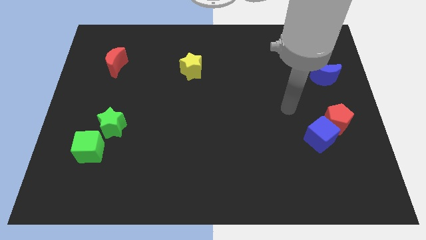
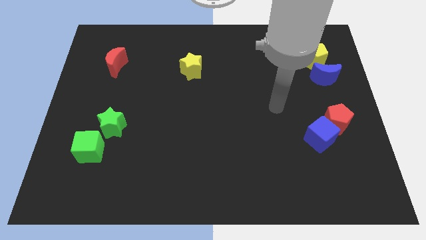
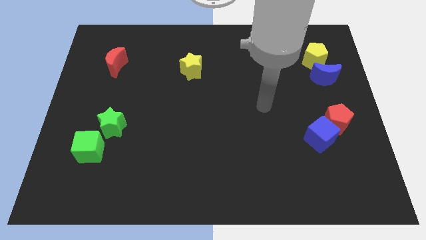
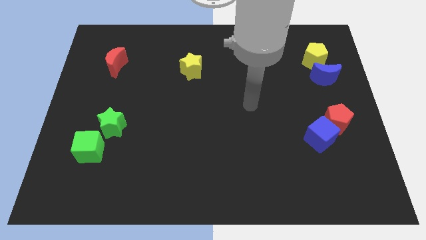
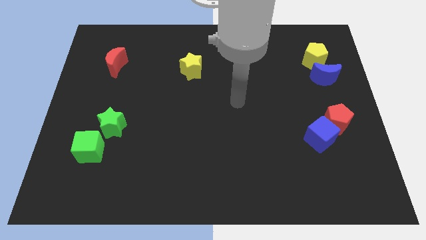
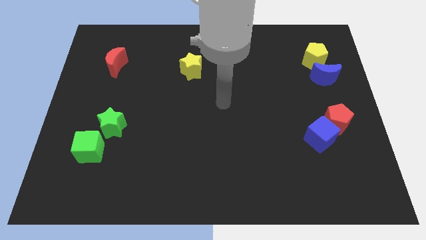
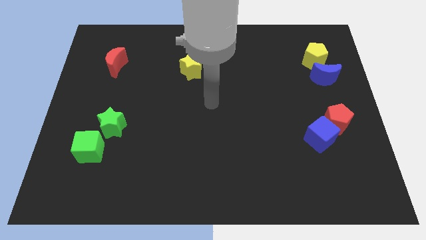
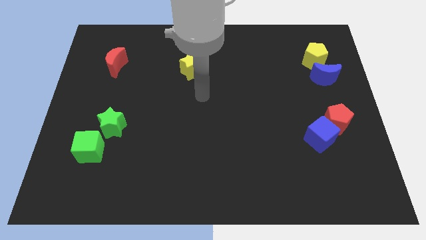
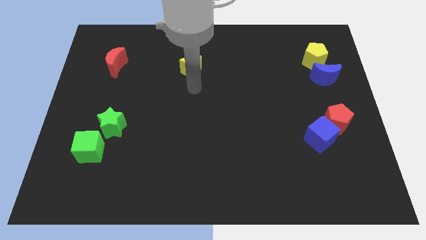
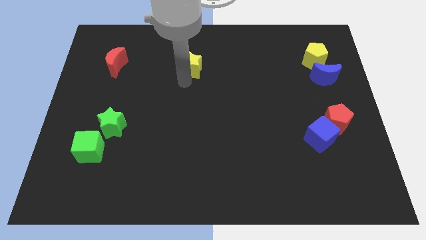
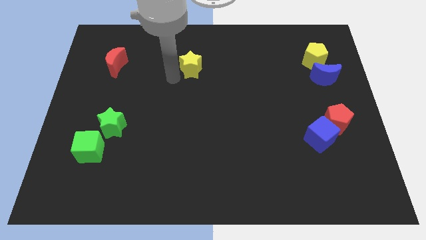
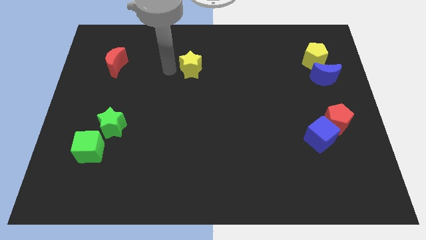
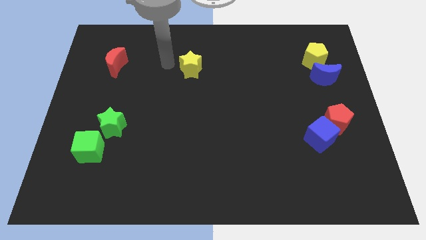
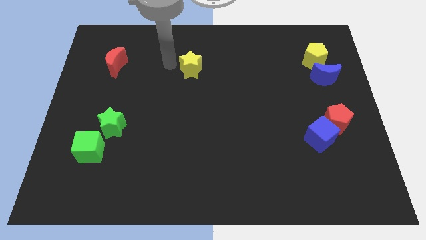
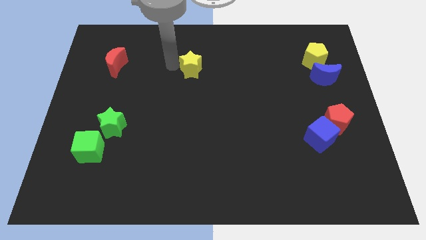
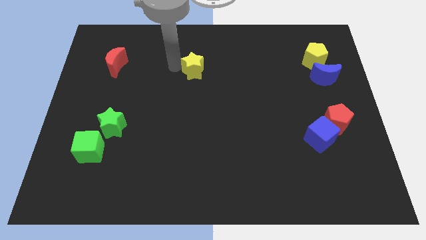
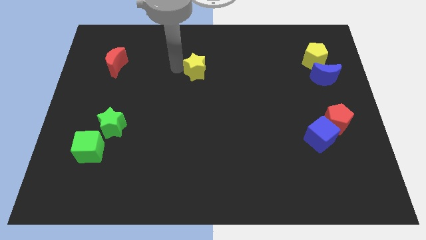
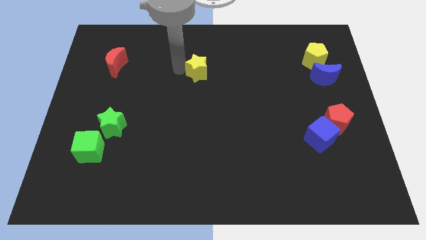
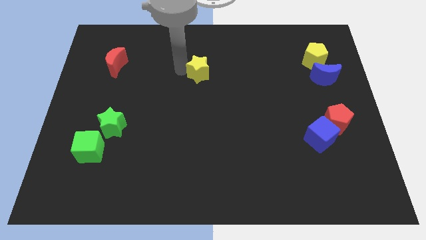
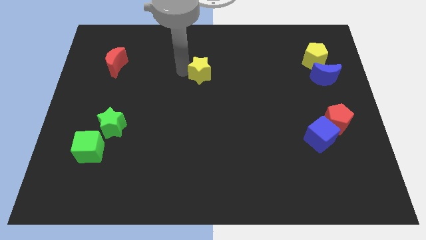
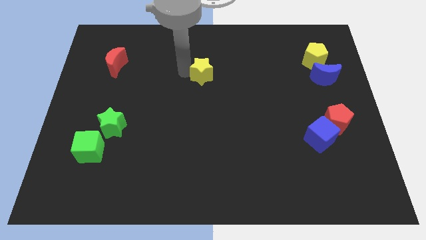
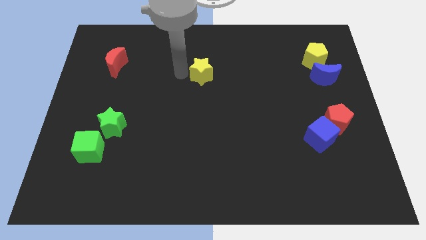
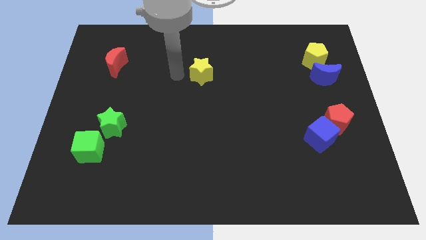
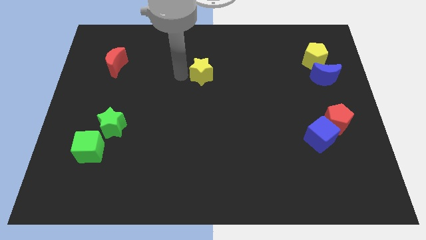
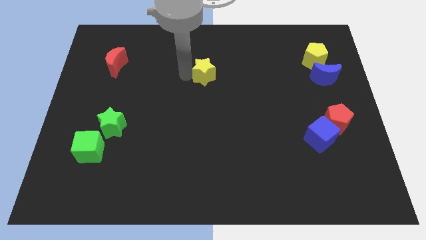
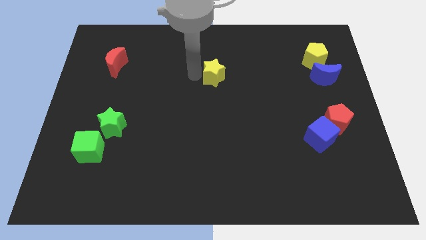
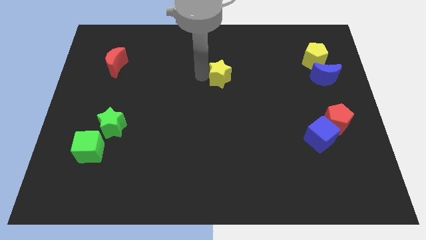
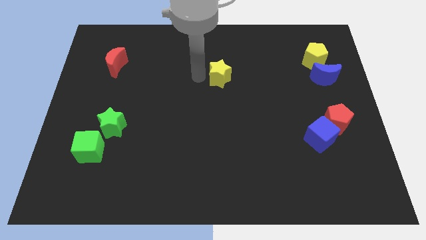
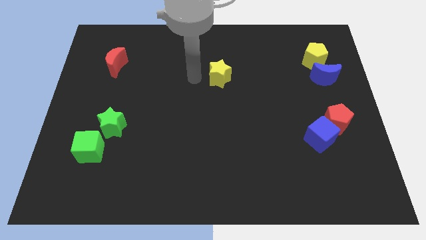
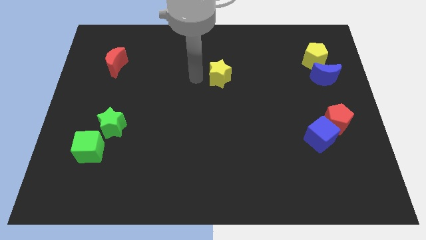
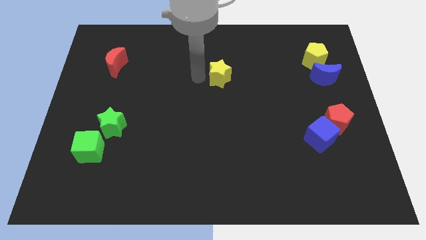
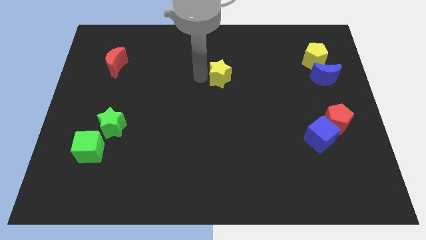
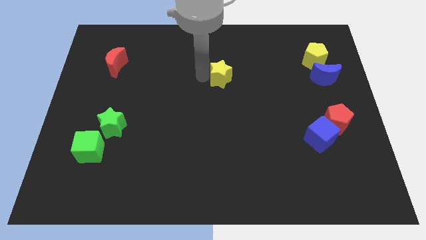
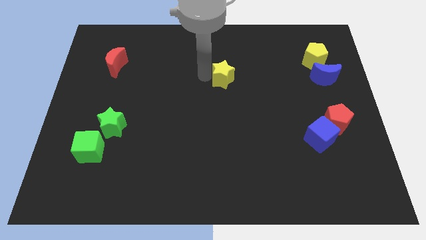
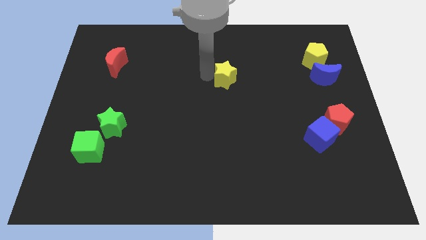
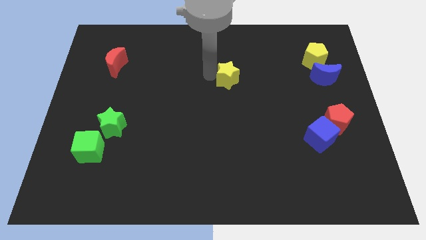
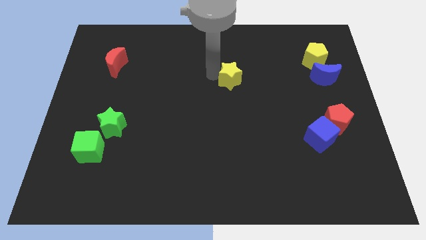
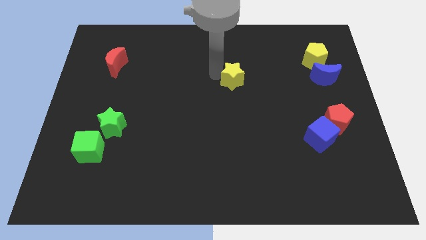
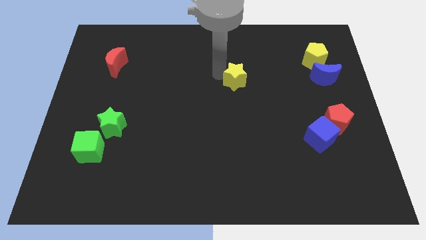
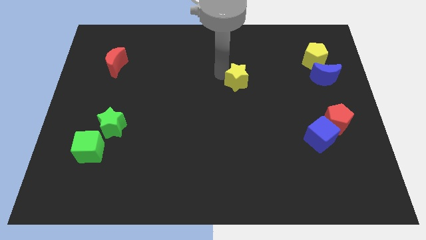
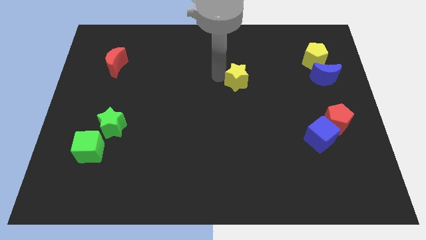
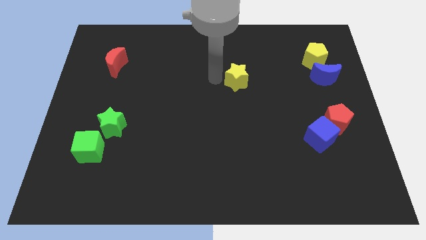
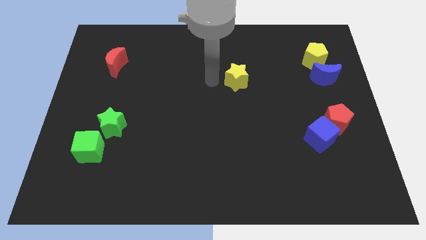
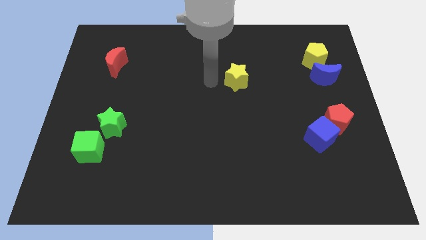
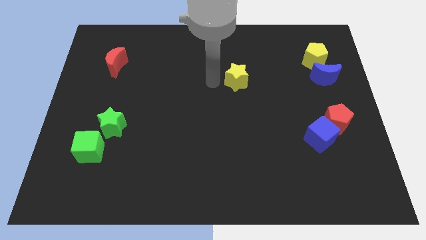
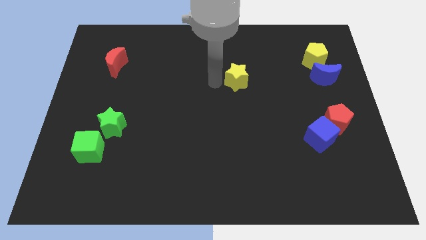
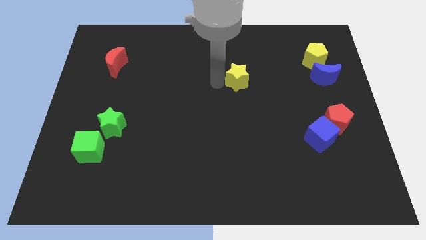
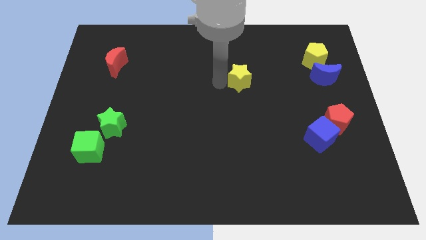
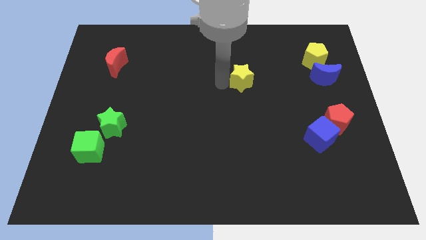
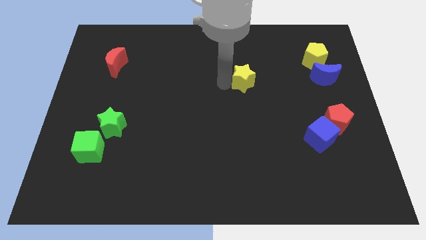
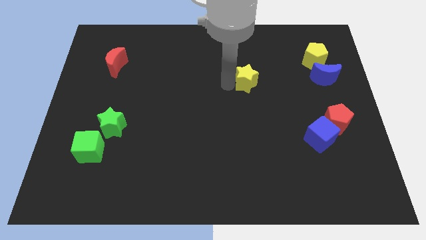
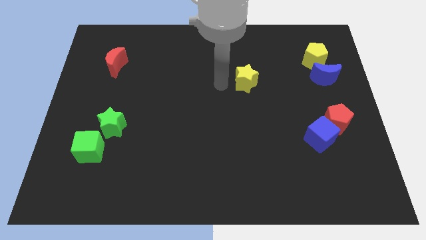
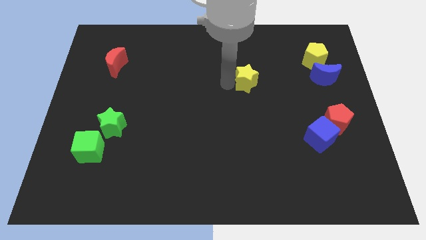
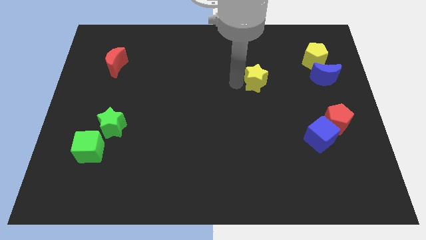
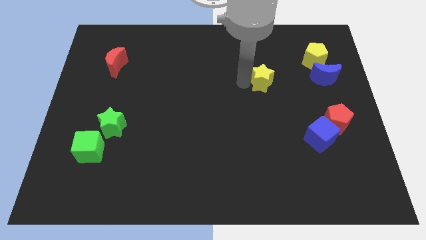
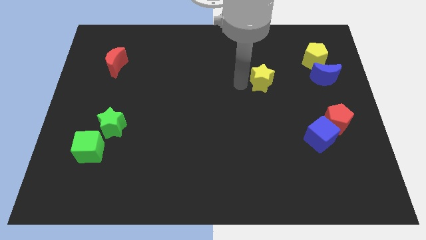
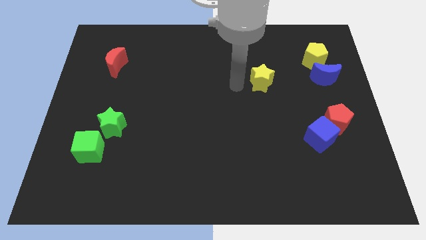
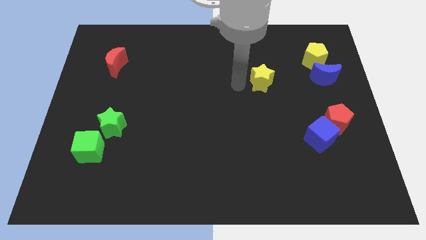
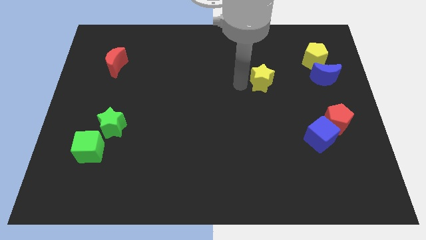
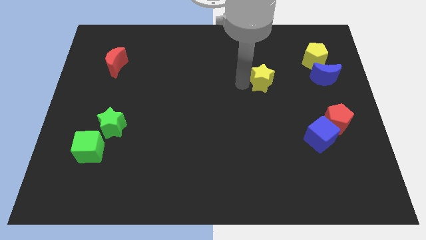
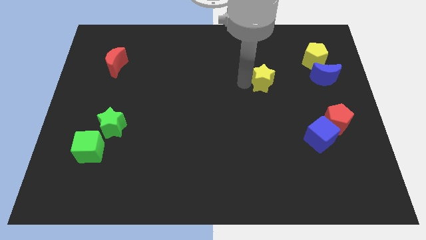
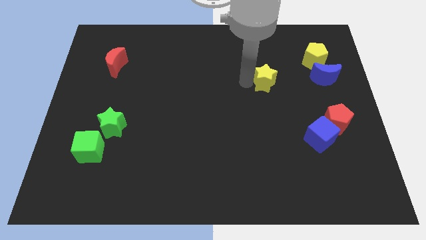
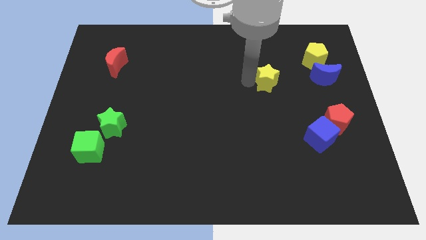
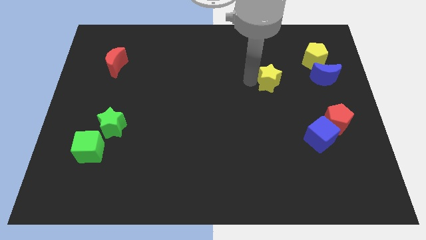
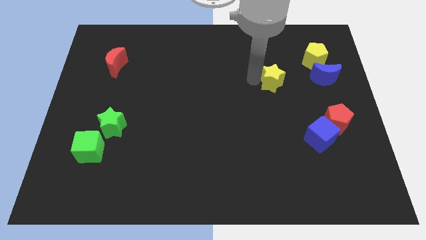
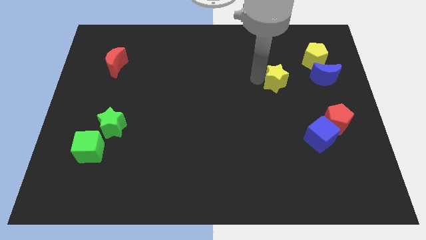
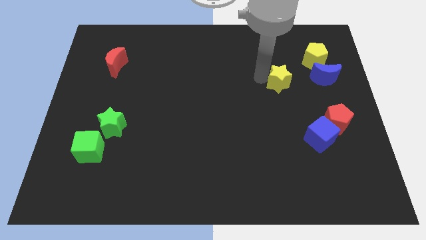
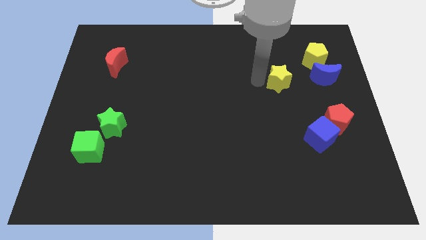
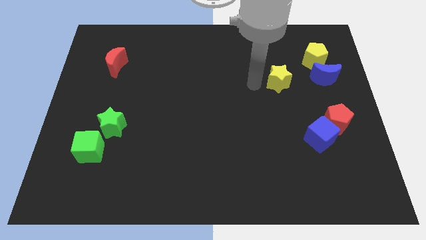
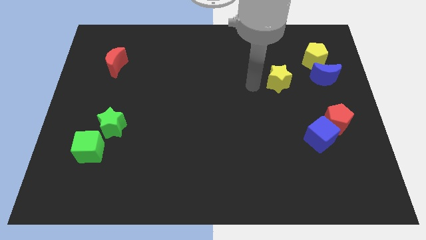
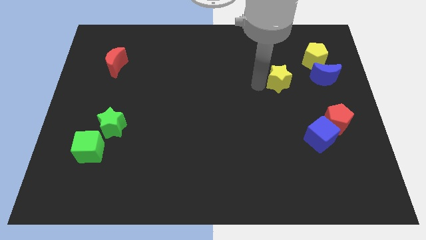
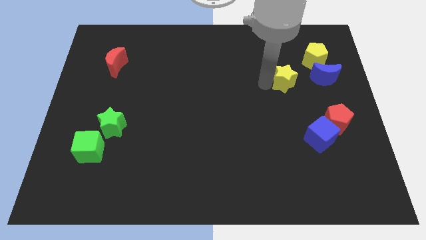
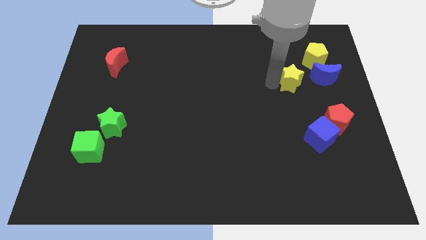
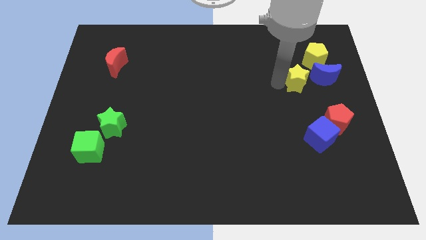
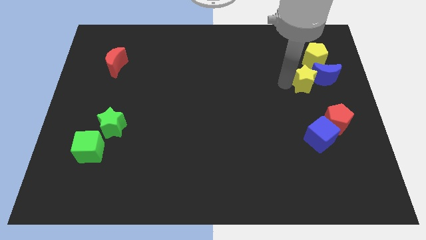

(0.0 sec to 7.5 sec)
put the yellow star to the blue moon
